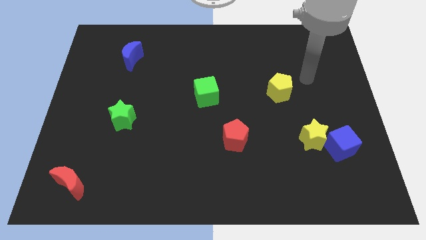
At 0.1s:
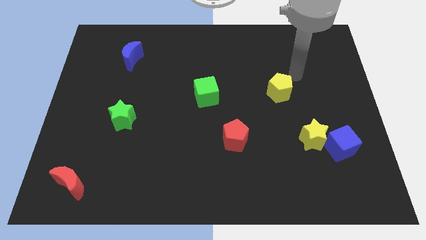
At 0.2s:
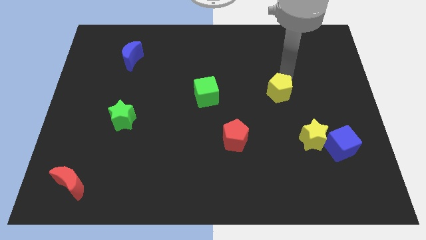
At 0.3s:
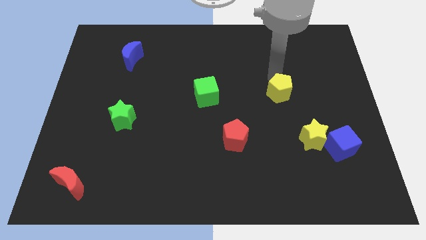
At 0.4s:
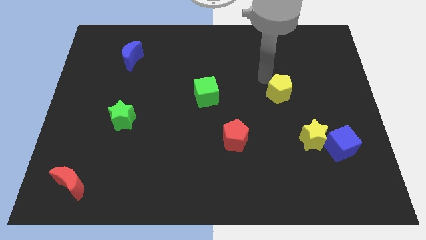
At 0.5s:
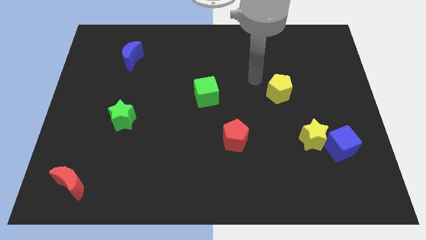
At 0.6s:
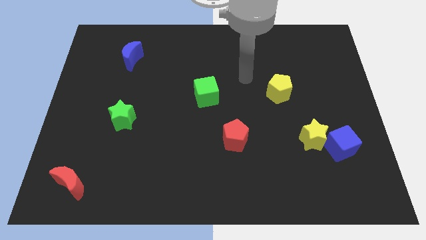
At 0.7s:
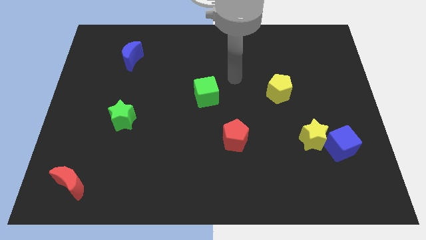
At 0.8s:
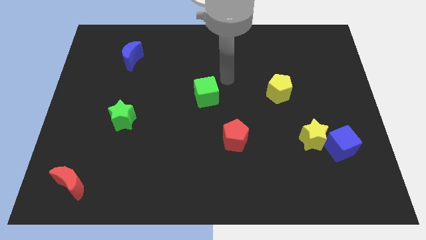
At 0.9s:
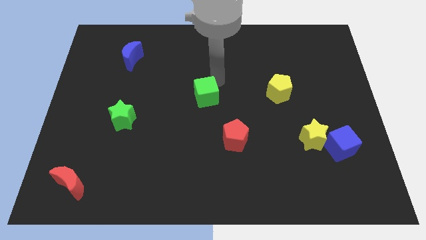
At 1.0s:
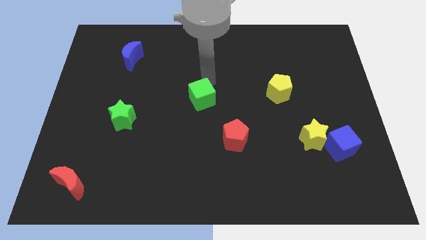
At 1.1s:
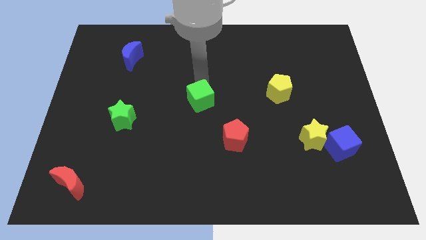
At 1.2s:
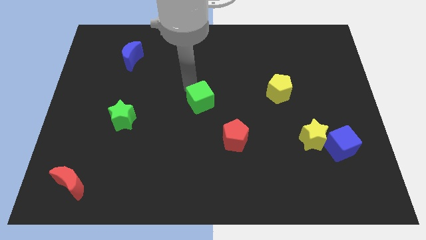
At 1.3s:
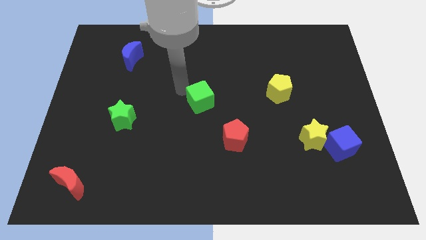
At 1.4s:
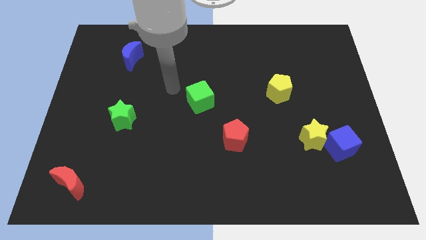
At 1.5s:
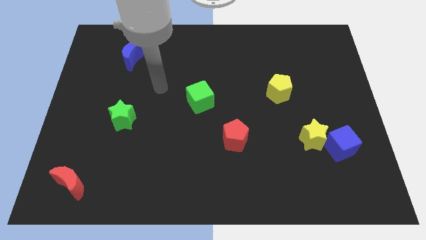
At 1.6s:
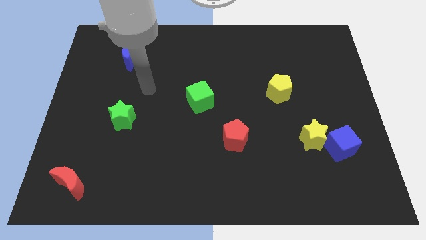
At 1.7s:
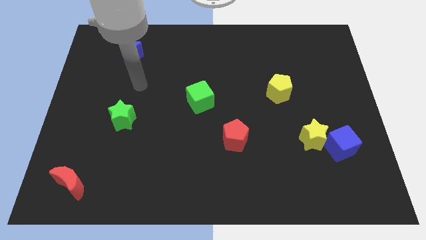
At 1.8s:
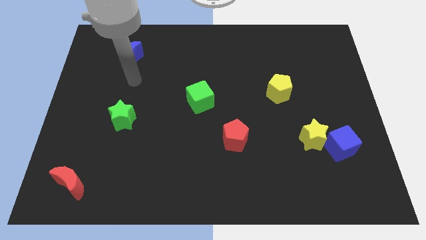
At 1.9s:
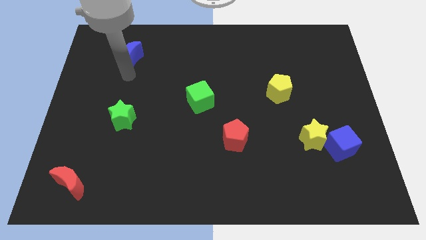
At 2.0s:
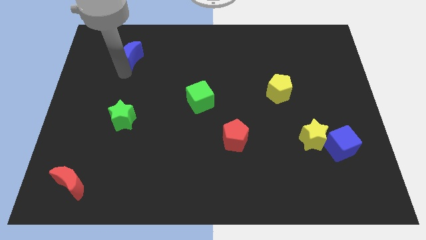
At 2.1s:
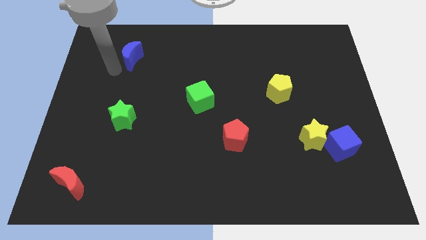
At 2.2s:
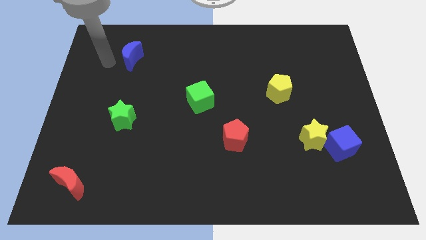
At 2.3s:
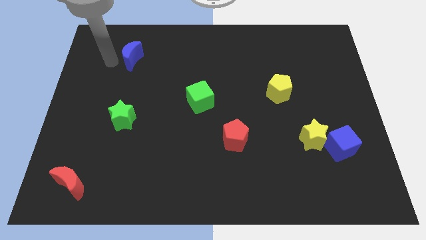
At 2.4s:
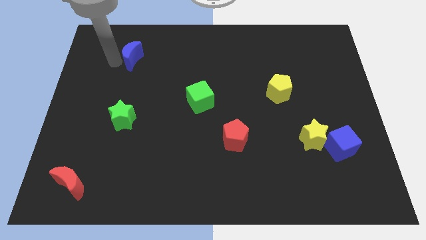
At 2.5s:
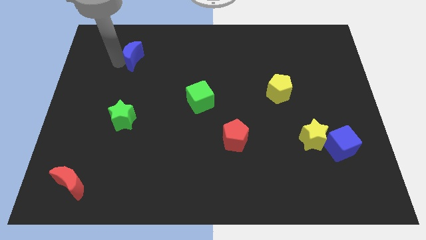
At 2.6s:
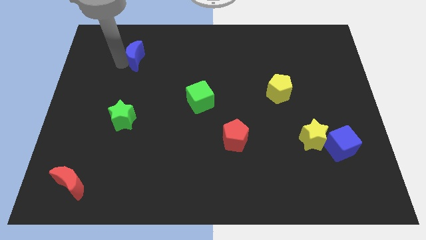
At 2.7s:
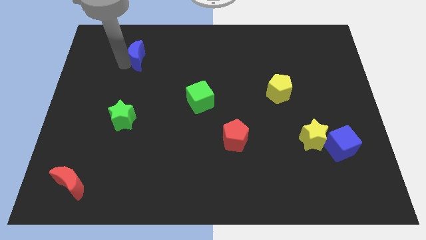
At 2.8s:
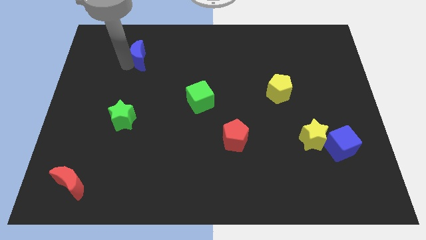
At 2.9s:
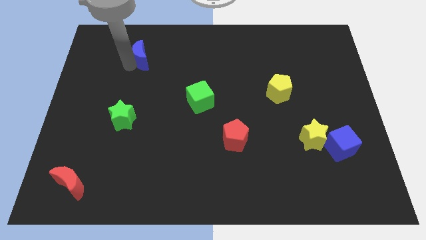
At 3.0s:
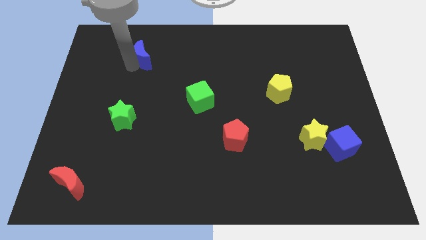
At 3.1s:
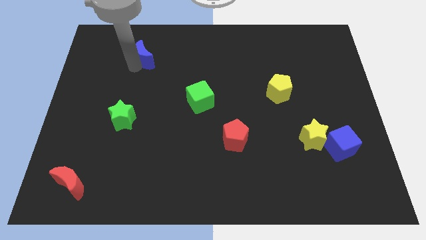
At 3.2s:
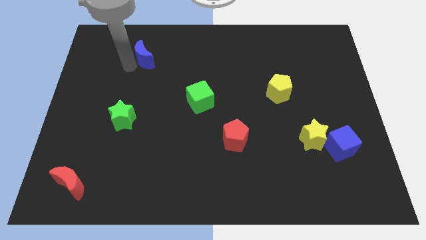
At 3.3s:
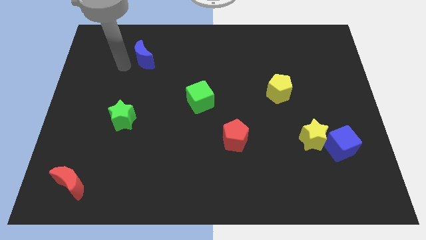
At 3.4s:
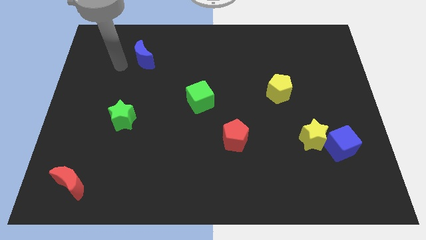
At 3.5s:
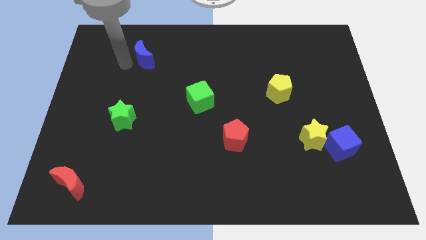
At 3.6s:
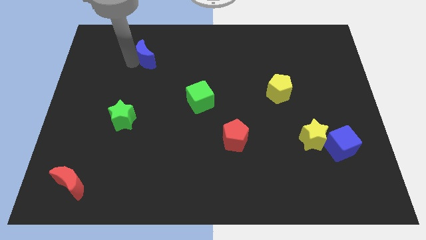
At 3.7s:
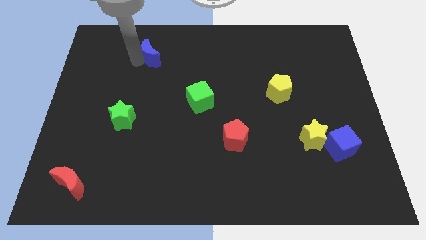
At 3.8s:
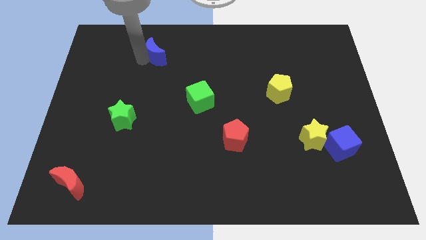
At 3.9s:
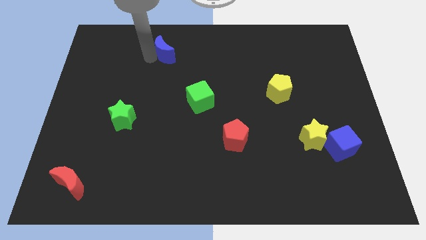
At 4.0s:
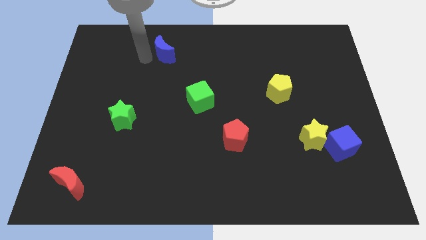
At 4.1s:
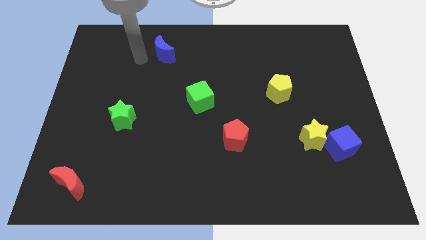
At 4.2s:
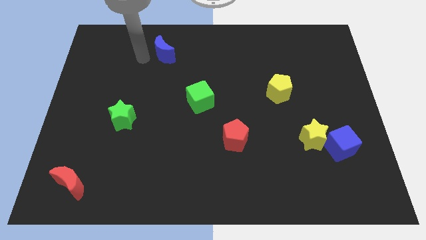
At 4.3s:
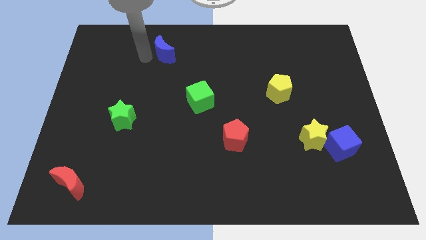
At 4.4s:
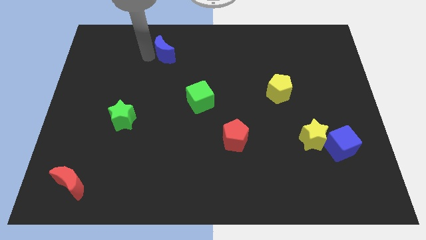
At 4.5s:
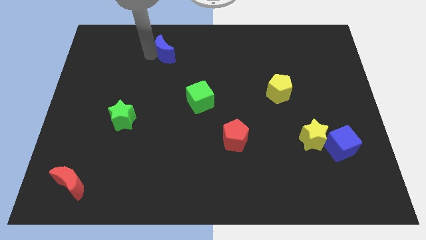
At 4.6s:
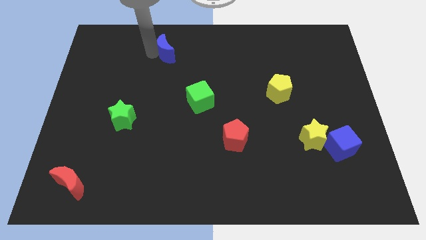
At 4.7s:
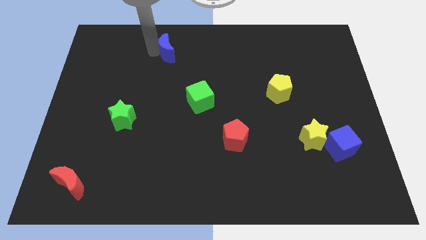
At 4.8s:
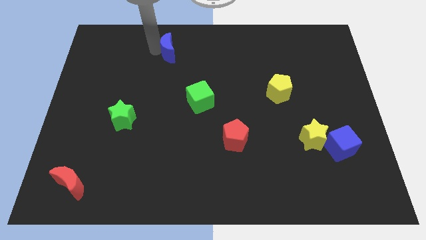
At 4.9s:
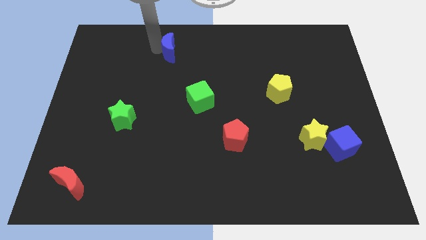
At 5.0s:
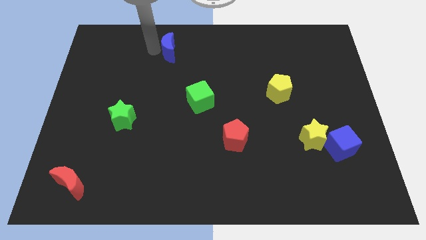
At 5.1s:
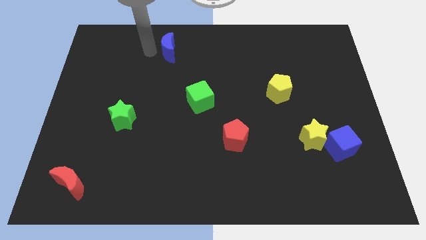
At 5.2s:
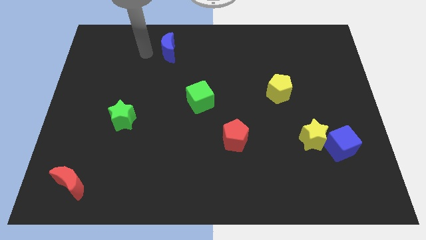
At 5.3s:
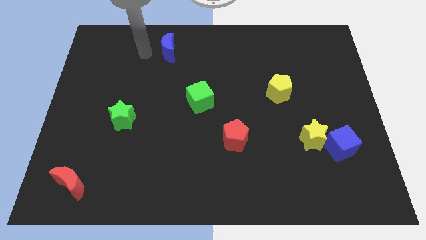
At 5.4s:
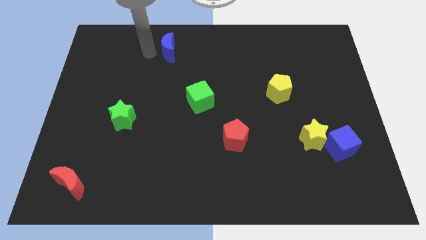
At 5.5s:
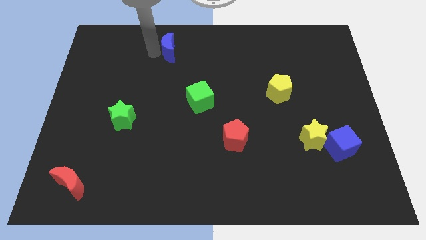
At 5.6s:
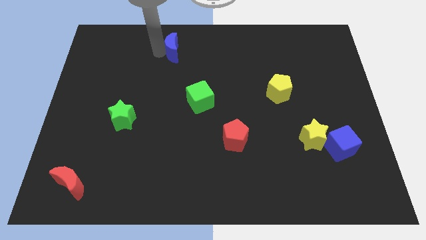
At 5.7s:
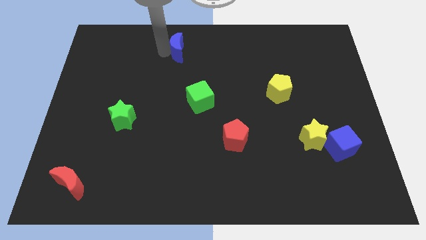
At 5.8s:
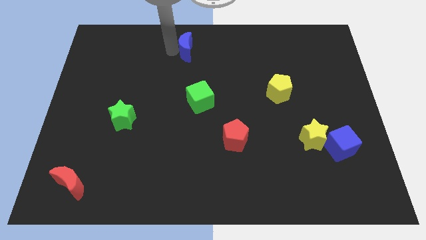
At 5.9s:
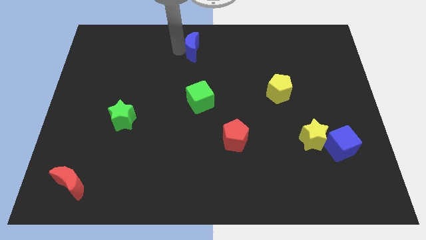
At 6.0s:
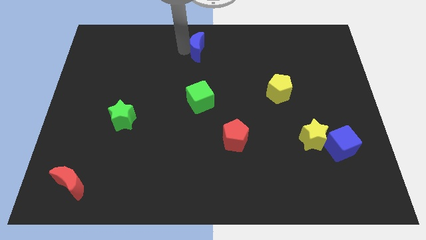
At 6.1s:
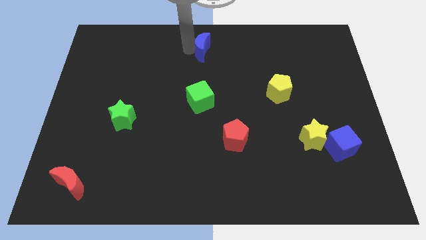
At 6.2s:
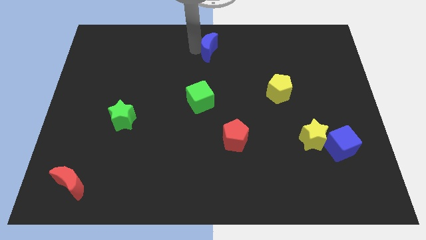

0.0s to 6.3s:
move the blue moon right

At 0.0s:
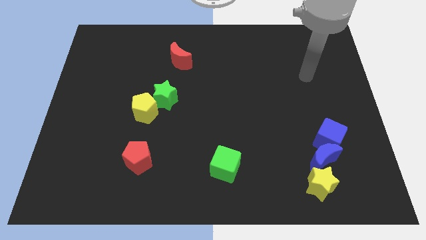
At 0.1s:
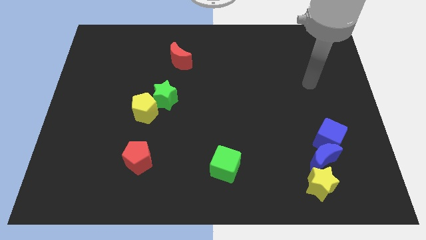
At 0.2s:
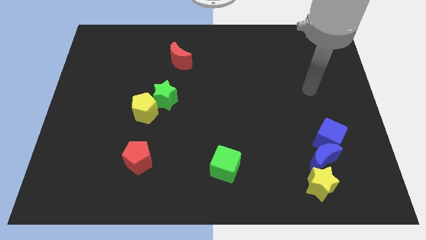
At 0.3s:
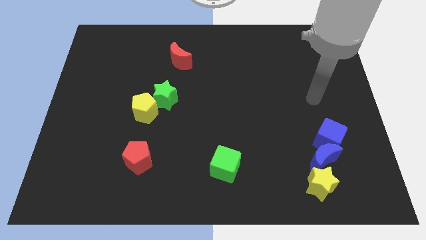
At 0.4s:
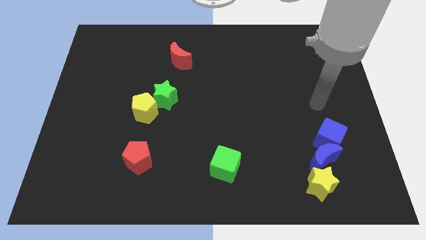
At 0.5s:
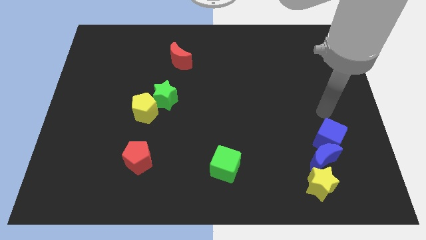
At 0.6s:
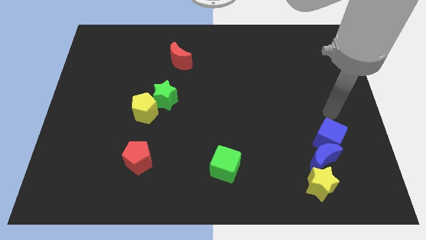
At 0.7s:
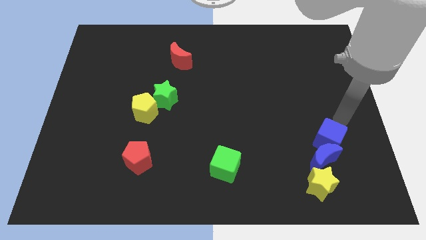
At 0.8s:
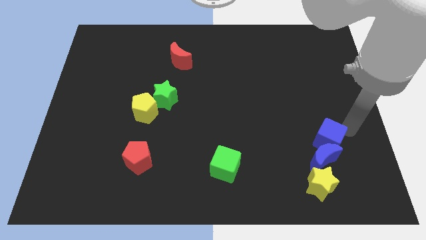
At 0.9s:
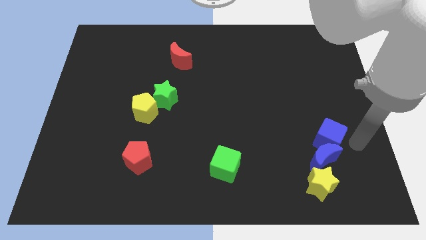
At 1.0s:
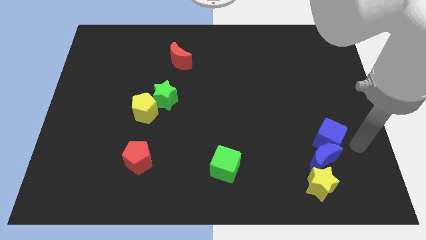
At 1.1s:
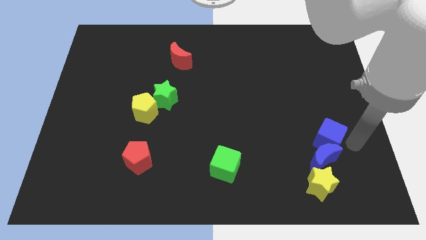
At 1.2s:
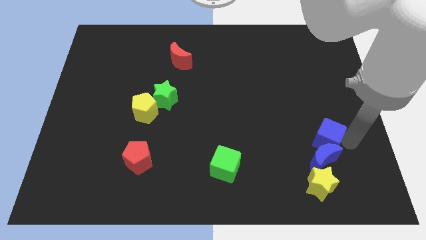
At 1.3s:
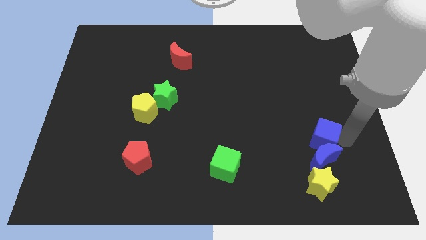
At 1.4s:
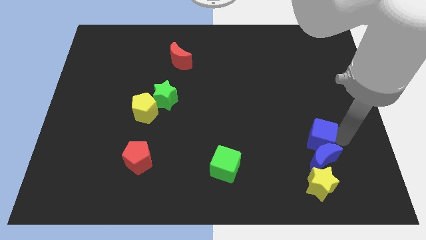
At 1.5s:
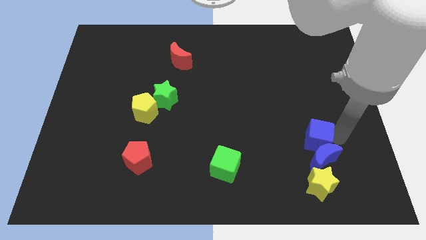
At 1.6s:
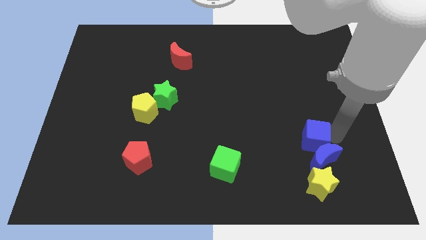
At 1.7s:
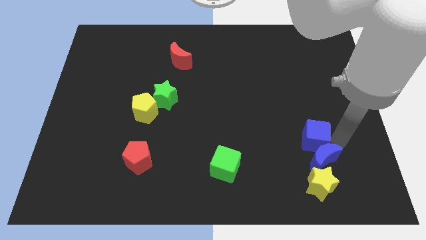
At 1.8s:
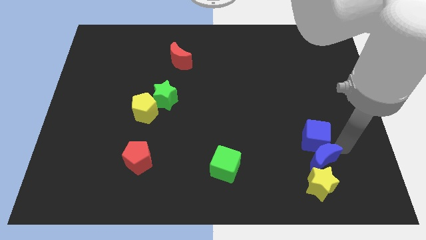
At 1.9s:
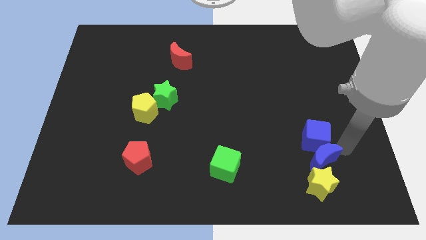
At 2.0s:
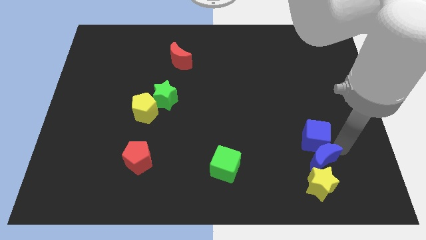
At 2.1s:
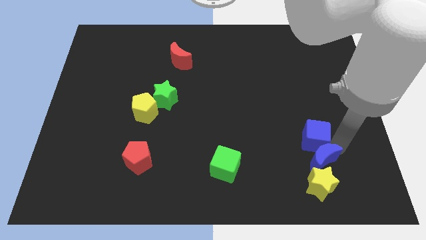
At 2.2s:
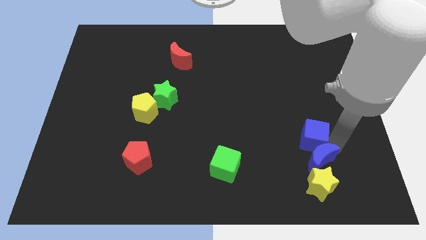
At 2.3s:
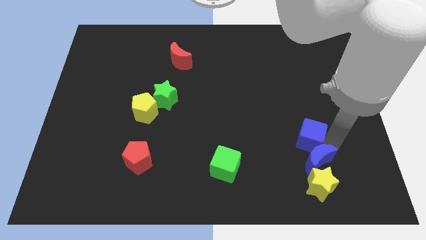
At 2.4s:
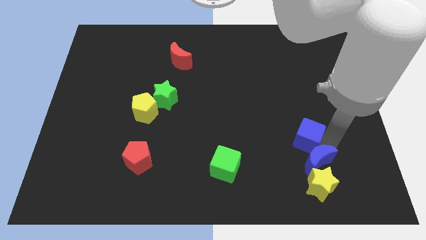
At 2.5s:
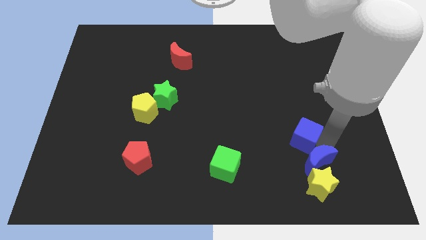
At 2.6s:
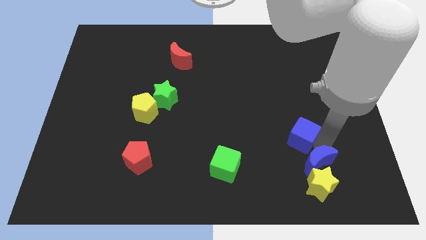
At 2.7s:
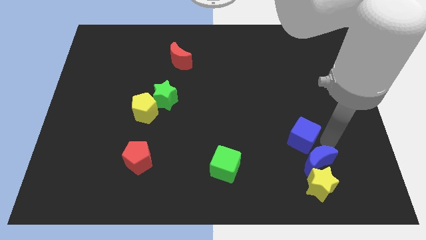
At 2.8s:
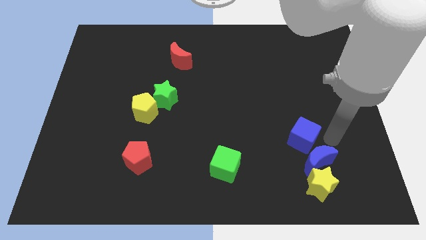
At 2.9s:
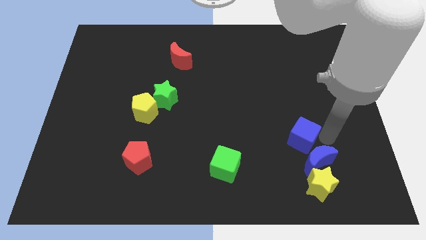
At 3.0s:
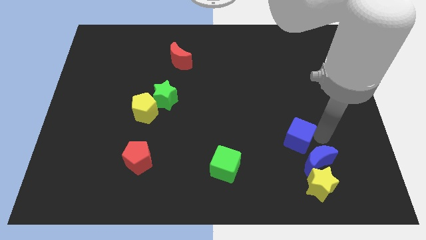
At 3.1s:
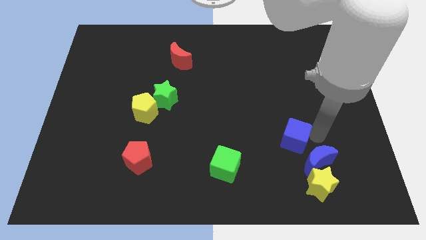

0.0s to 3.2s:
move the blue cube left slightly
